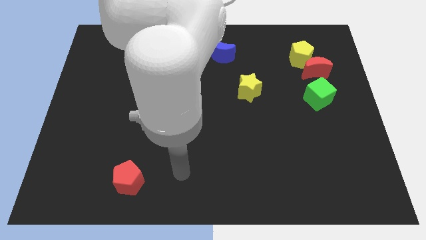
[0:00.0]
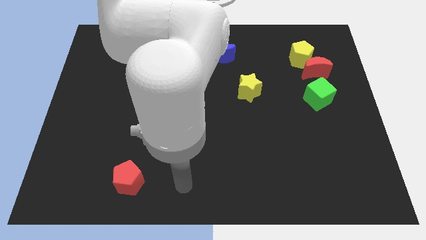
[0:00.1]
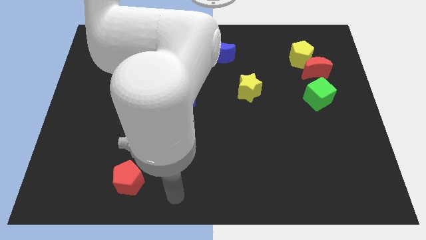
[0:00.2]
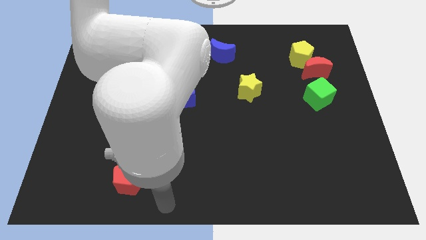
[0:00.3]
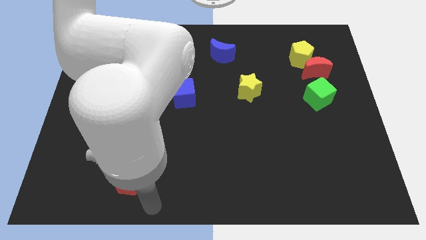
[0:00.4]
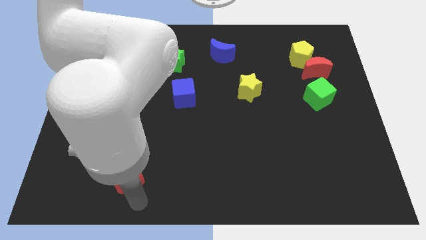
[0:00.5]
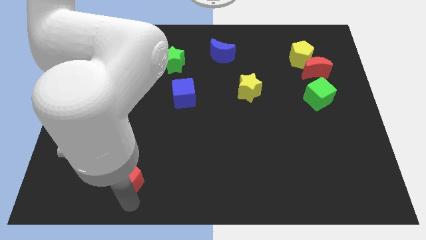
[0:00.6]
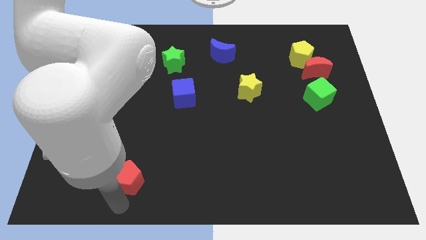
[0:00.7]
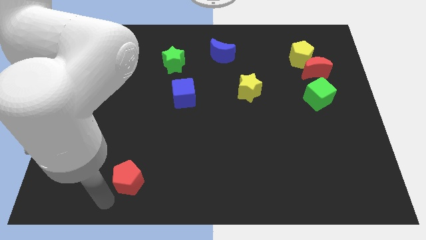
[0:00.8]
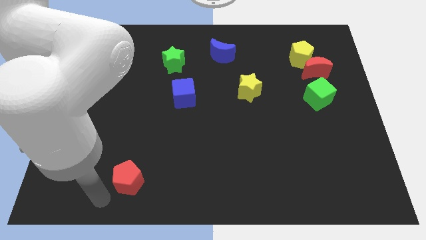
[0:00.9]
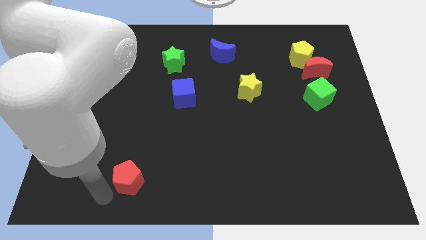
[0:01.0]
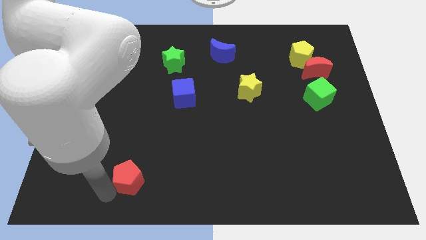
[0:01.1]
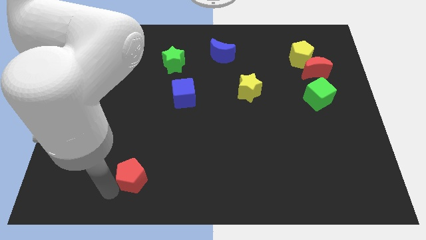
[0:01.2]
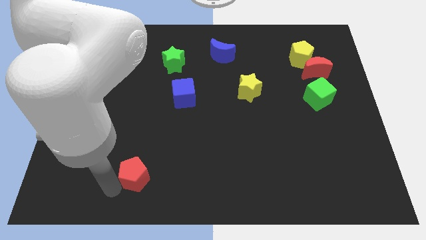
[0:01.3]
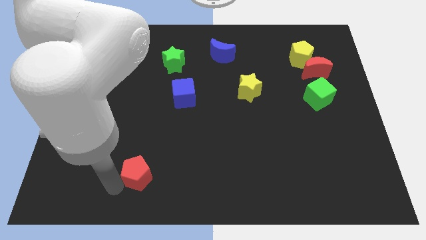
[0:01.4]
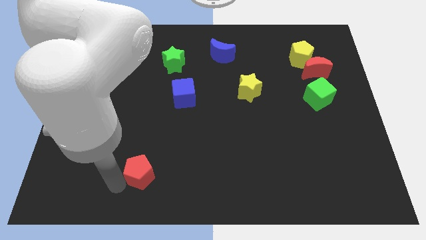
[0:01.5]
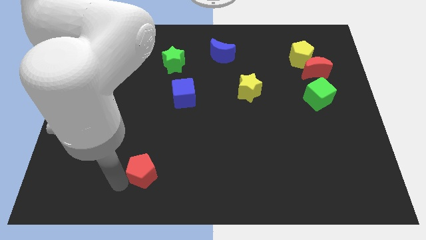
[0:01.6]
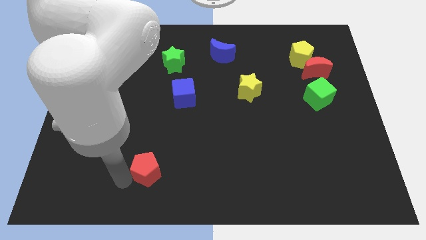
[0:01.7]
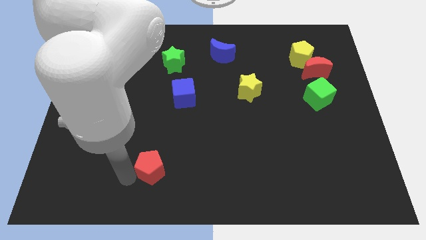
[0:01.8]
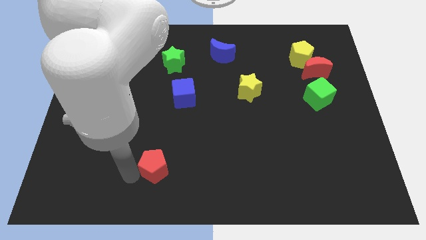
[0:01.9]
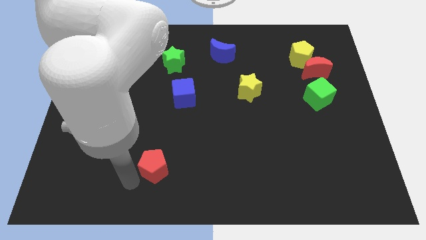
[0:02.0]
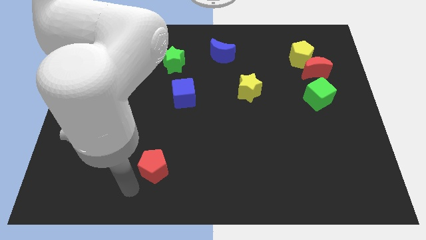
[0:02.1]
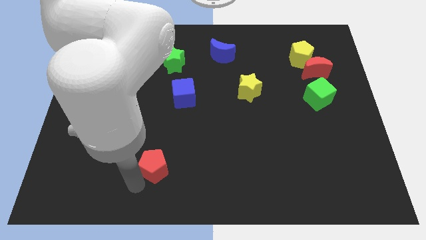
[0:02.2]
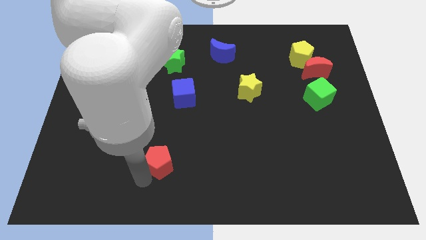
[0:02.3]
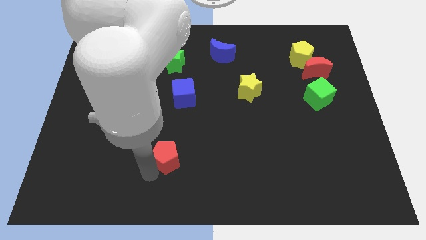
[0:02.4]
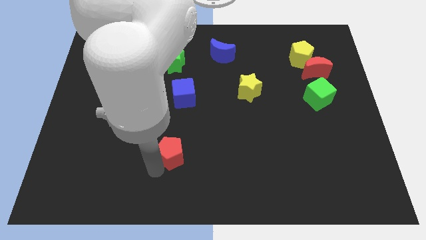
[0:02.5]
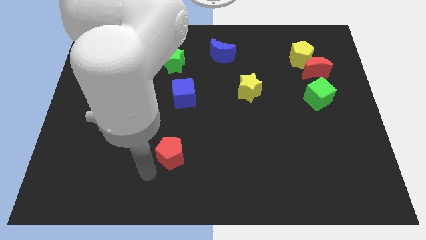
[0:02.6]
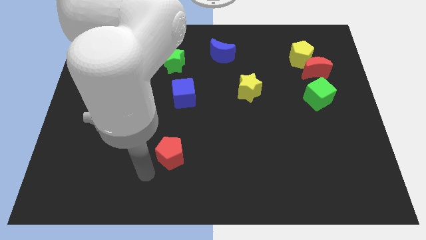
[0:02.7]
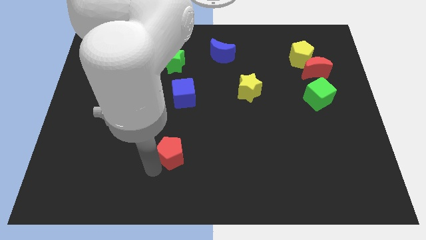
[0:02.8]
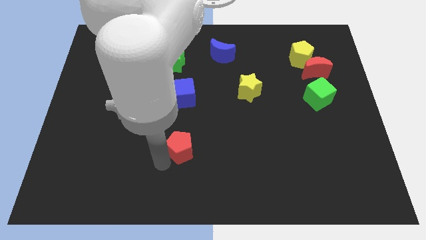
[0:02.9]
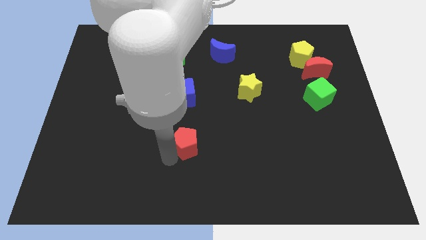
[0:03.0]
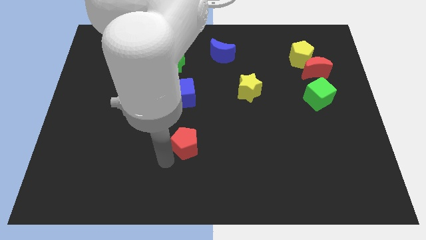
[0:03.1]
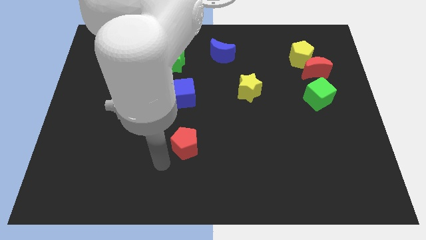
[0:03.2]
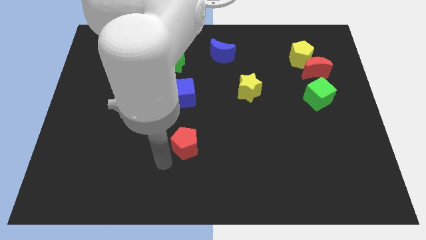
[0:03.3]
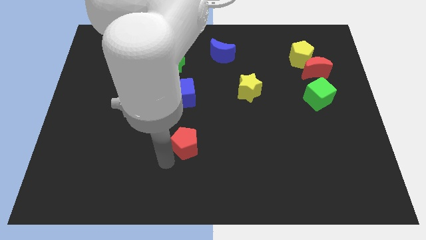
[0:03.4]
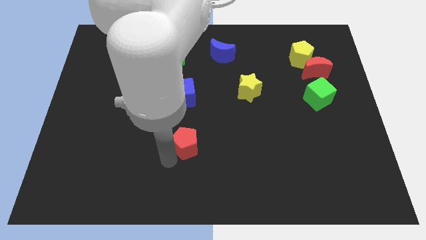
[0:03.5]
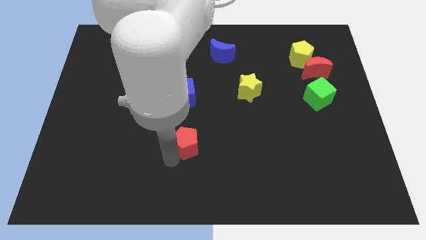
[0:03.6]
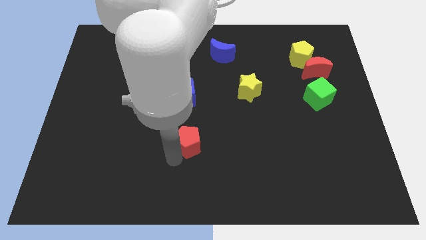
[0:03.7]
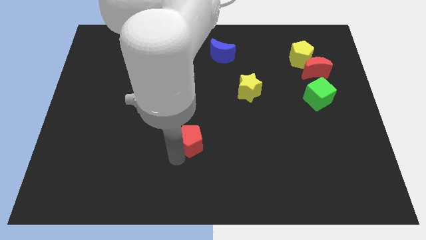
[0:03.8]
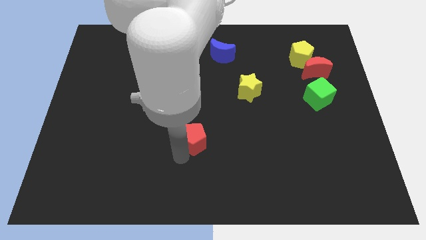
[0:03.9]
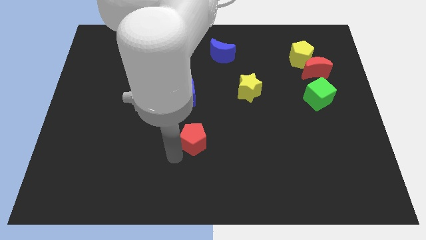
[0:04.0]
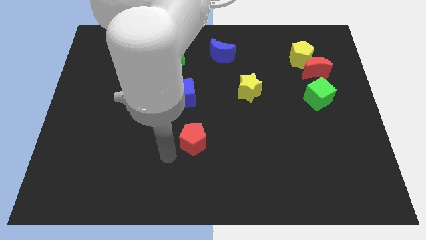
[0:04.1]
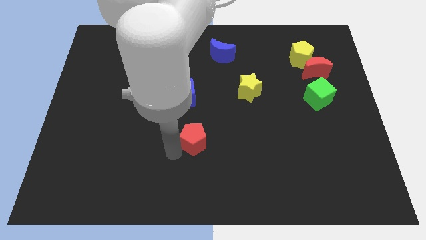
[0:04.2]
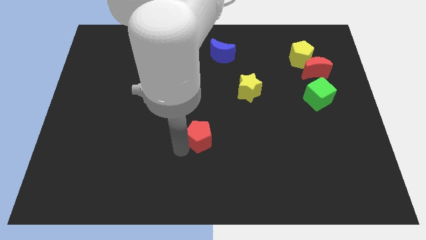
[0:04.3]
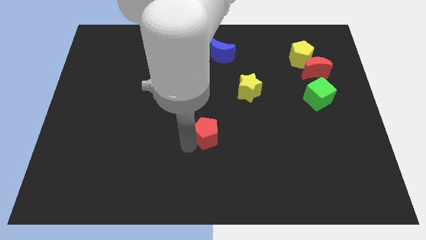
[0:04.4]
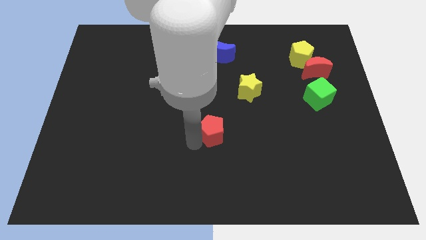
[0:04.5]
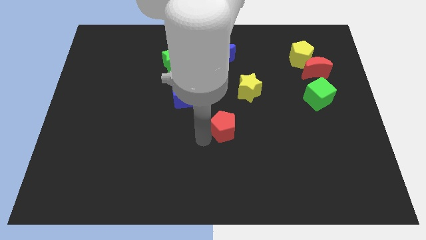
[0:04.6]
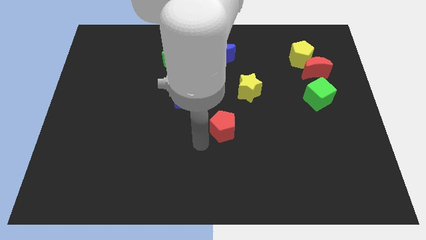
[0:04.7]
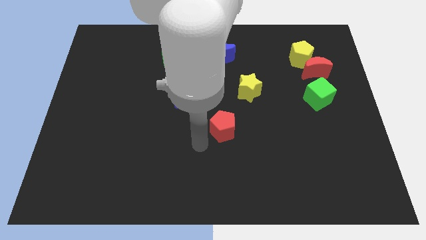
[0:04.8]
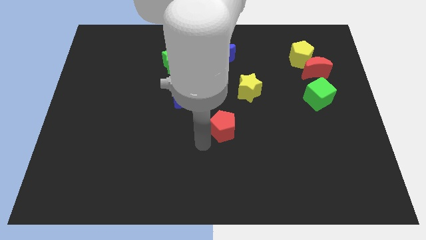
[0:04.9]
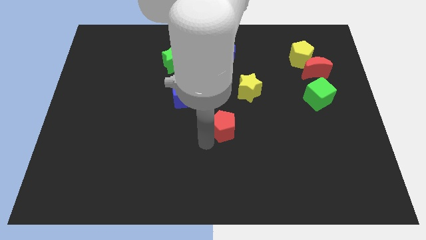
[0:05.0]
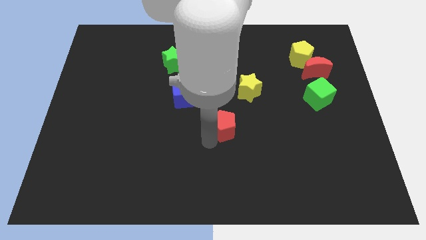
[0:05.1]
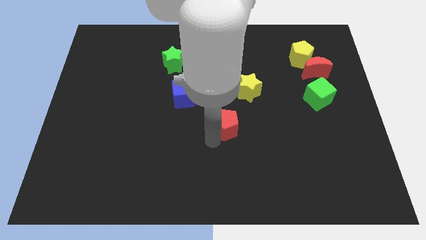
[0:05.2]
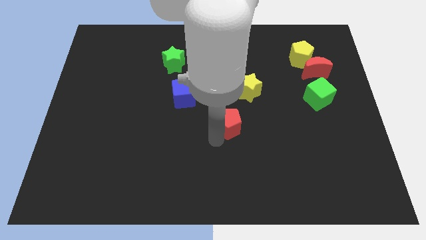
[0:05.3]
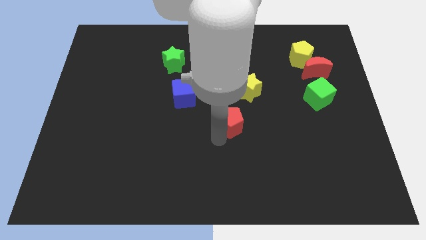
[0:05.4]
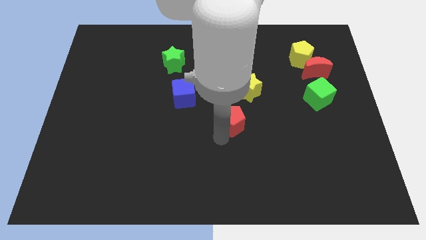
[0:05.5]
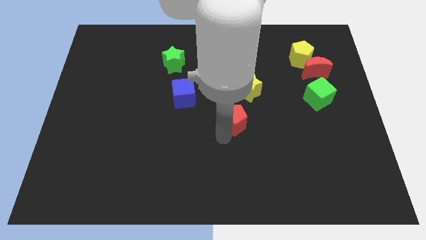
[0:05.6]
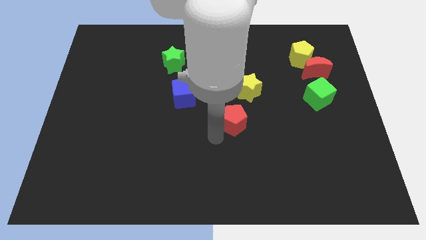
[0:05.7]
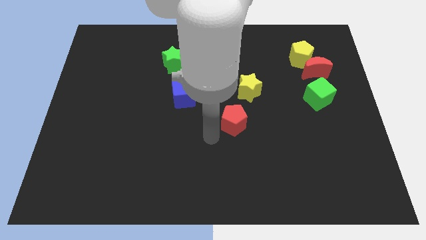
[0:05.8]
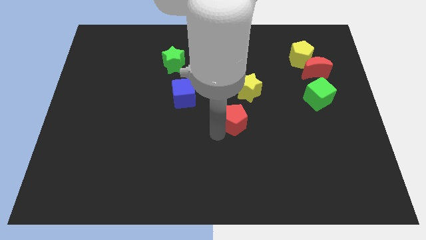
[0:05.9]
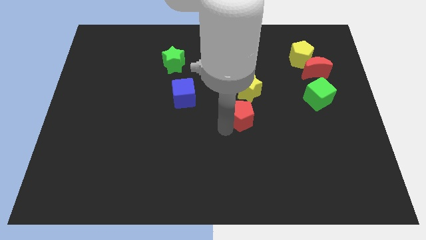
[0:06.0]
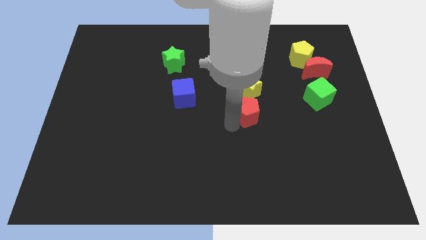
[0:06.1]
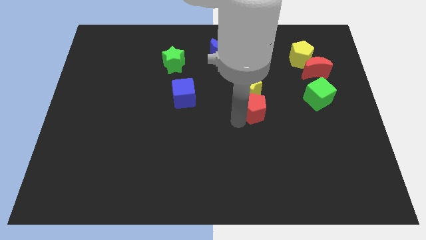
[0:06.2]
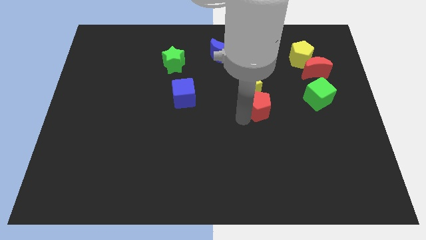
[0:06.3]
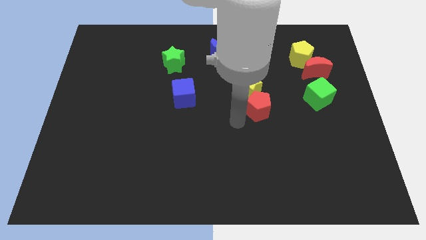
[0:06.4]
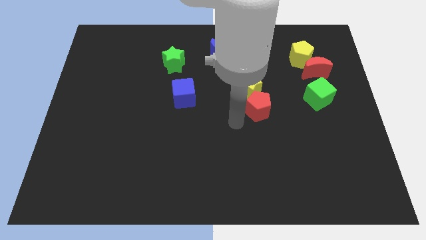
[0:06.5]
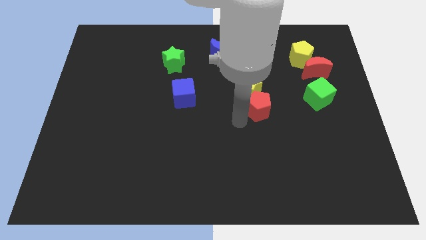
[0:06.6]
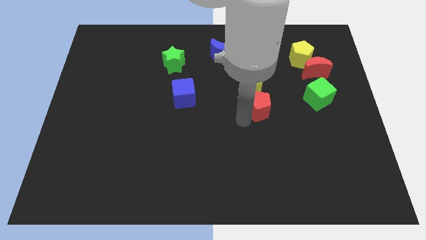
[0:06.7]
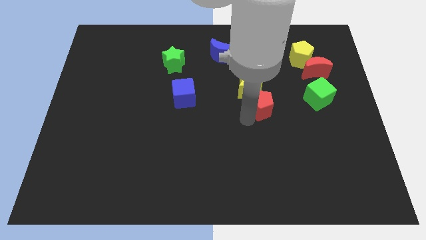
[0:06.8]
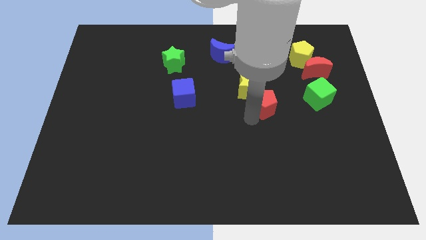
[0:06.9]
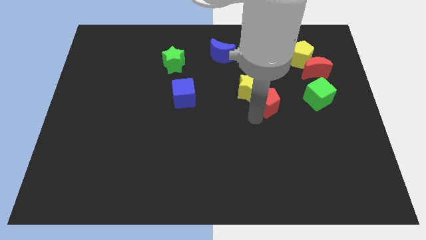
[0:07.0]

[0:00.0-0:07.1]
move the red pentagon just right of the yellow star
